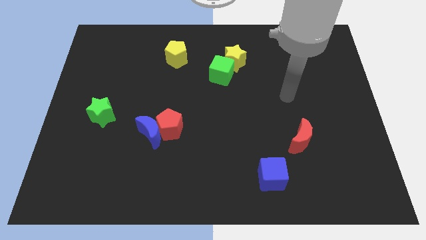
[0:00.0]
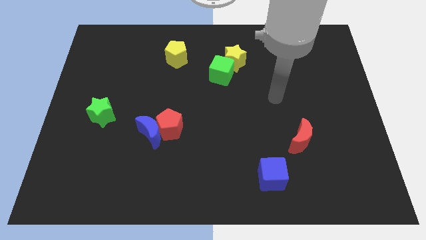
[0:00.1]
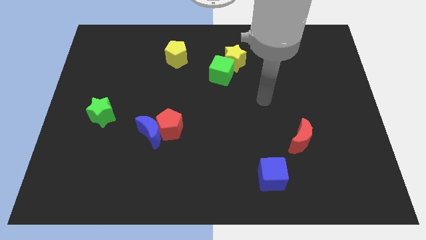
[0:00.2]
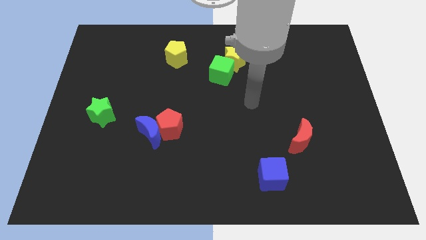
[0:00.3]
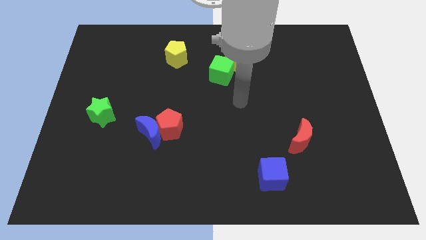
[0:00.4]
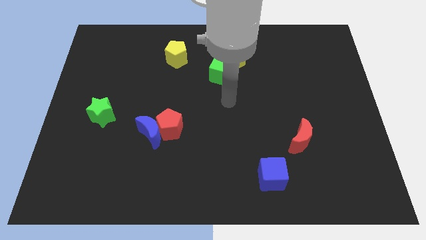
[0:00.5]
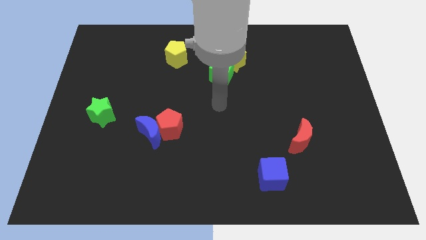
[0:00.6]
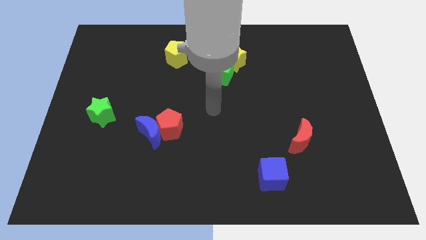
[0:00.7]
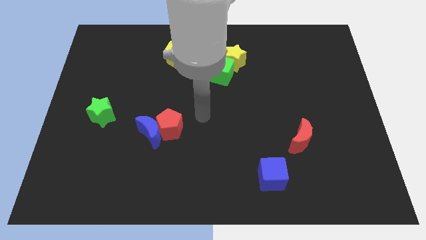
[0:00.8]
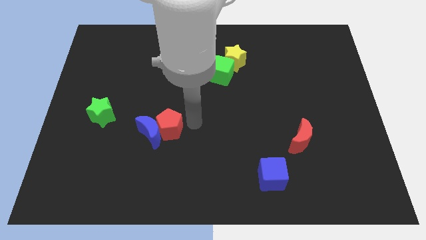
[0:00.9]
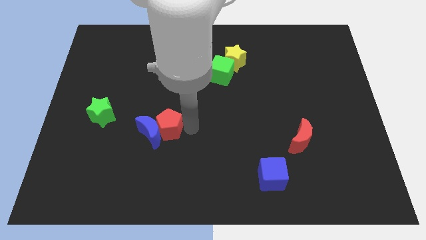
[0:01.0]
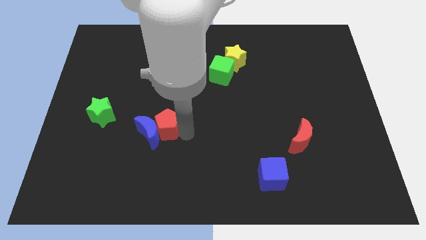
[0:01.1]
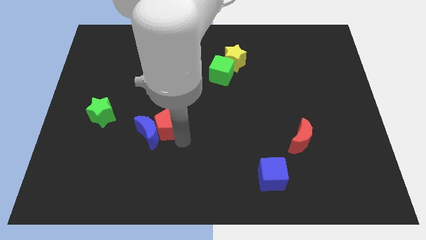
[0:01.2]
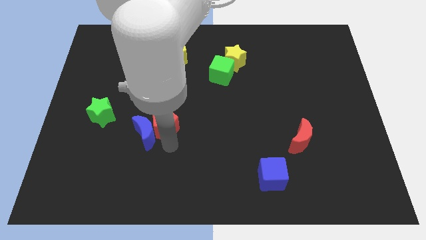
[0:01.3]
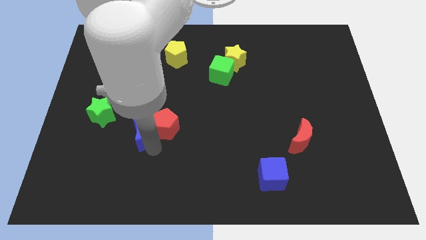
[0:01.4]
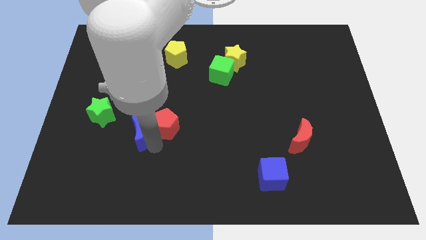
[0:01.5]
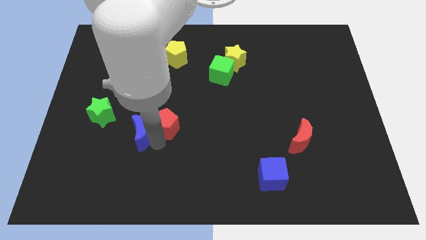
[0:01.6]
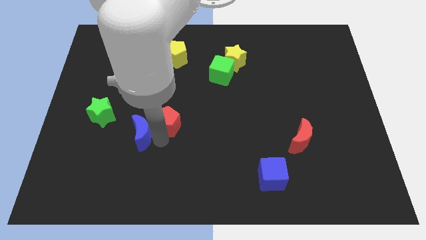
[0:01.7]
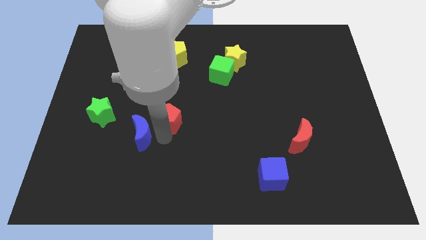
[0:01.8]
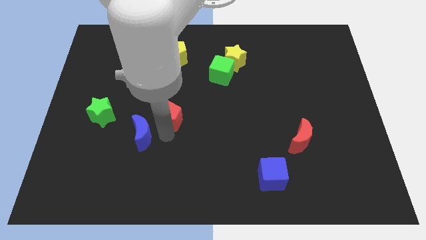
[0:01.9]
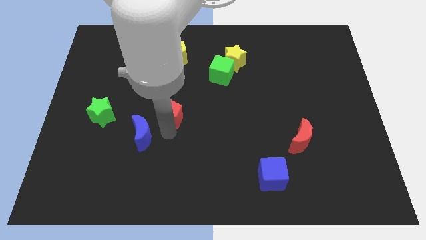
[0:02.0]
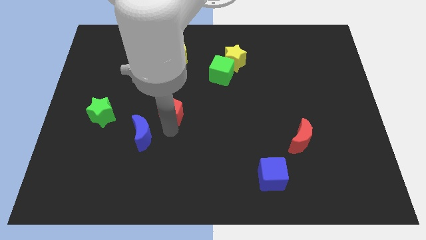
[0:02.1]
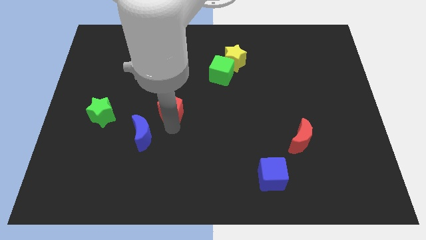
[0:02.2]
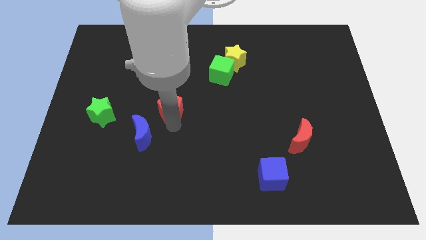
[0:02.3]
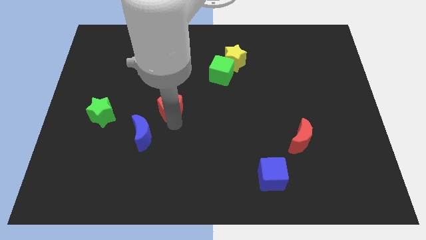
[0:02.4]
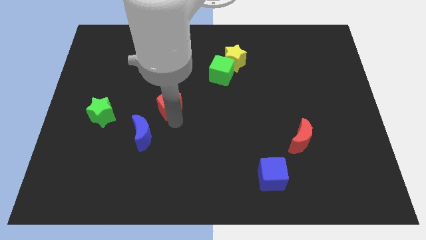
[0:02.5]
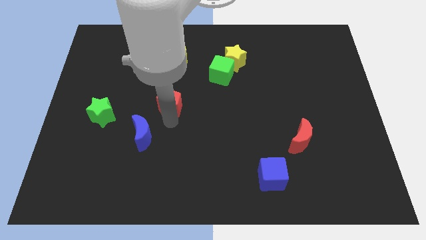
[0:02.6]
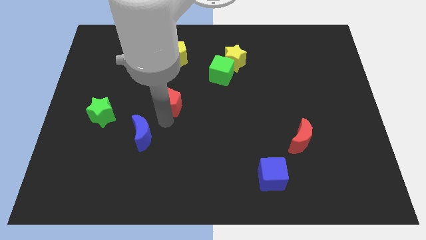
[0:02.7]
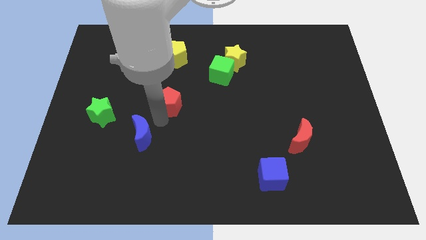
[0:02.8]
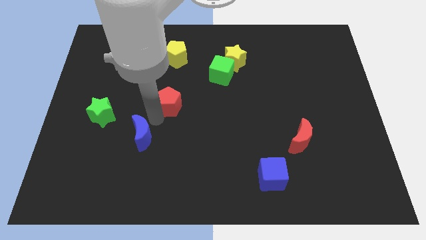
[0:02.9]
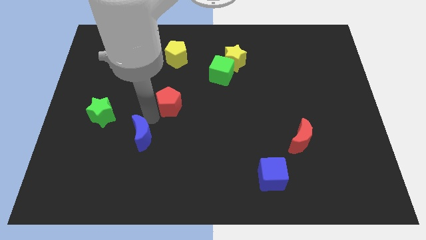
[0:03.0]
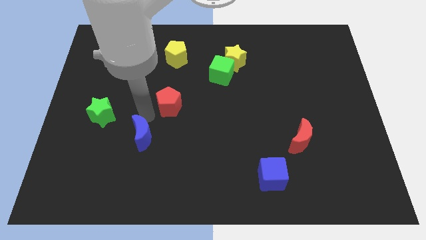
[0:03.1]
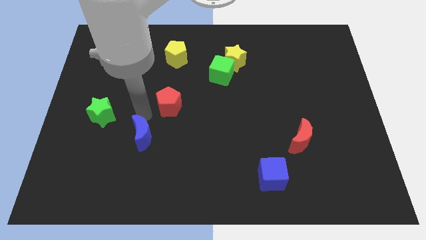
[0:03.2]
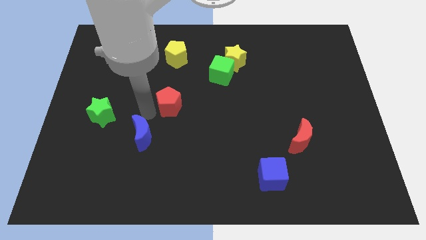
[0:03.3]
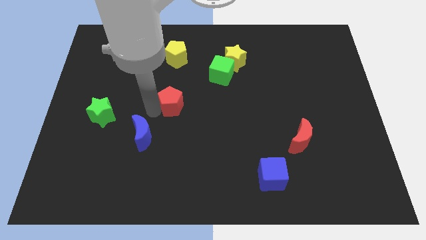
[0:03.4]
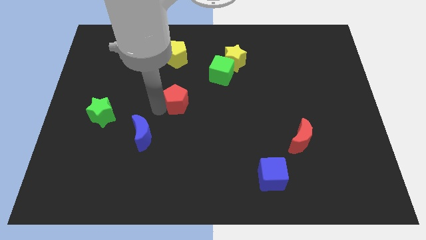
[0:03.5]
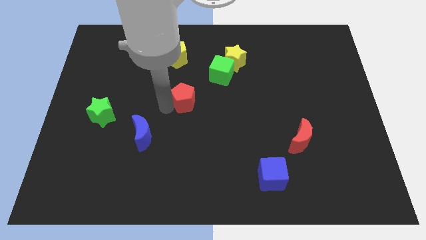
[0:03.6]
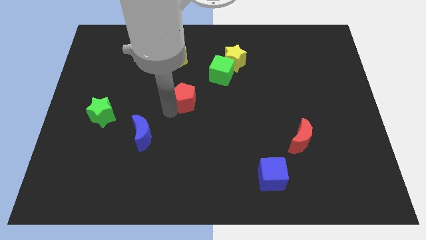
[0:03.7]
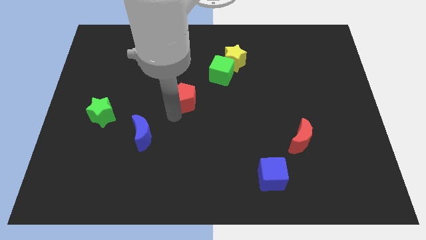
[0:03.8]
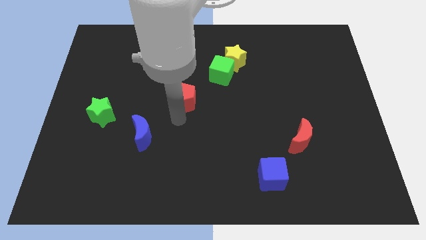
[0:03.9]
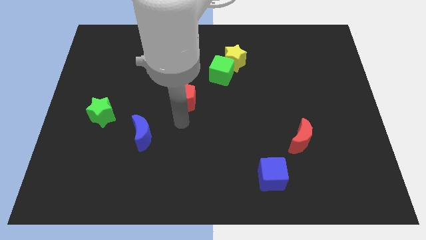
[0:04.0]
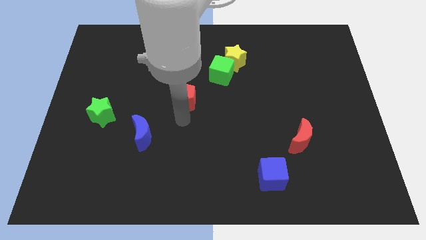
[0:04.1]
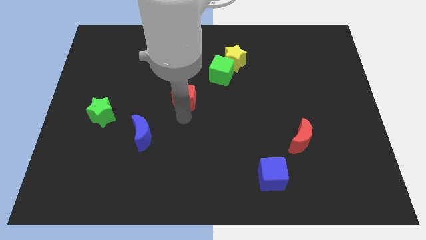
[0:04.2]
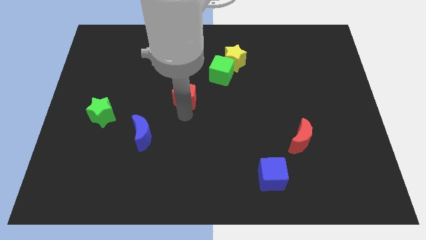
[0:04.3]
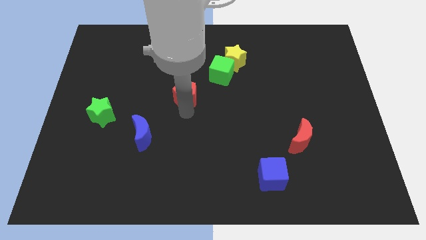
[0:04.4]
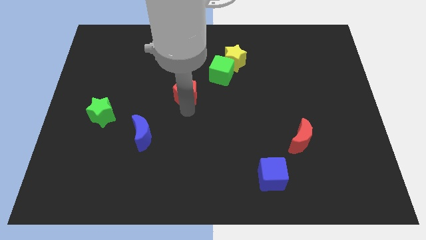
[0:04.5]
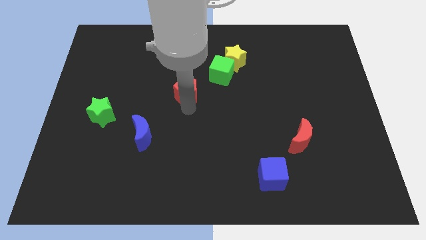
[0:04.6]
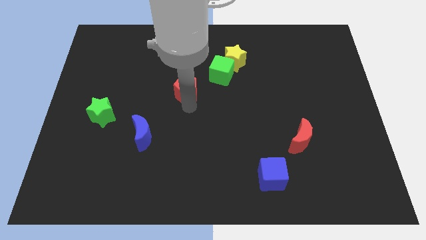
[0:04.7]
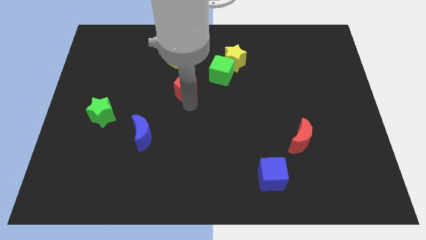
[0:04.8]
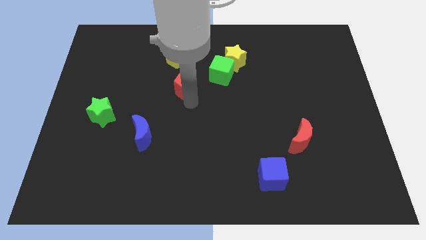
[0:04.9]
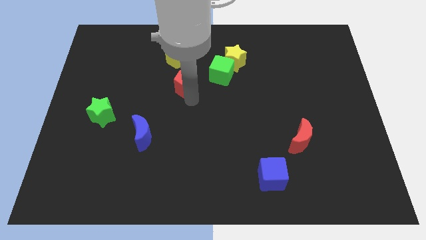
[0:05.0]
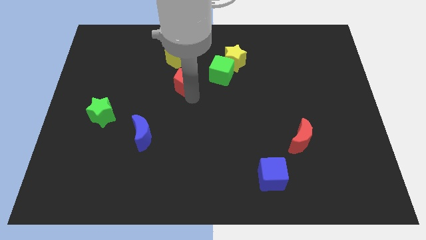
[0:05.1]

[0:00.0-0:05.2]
slide the red pentagon diagonally down and to the right of the yellow pentagon

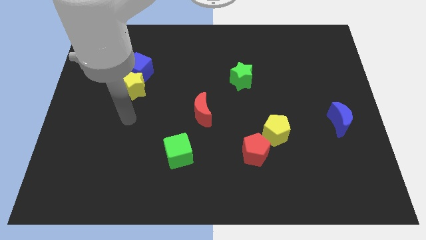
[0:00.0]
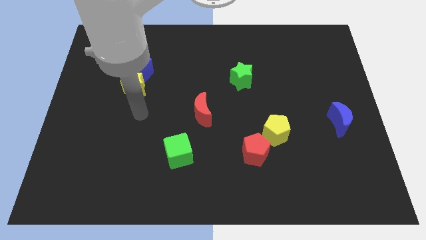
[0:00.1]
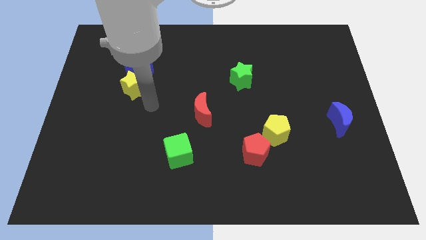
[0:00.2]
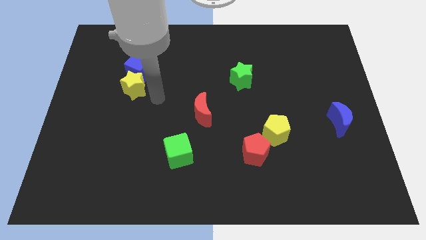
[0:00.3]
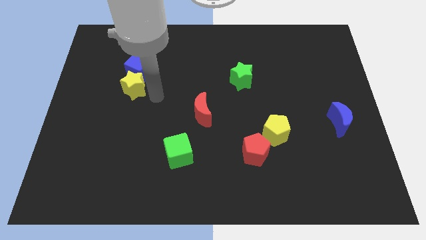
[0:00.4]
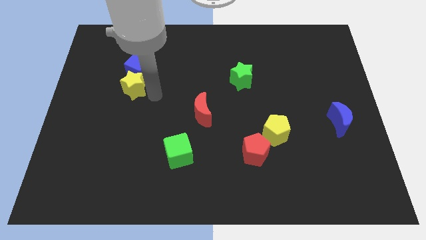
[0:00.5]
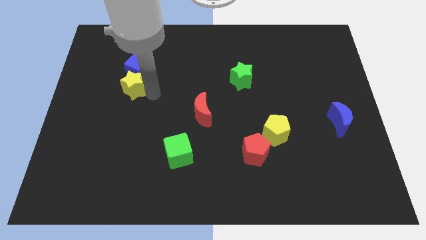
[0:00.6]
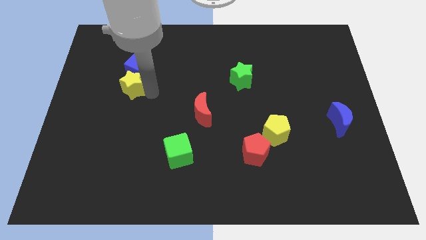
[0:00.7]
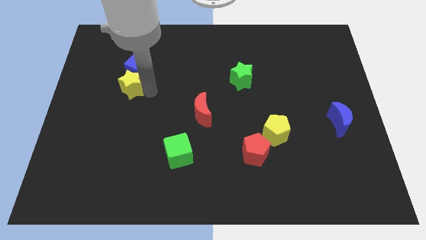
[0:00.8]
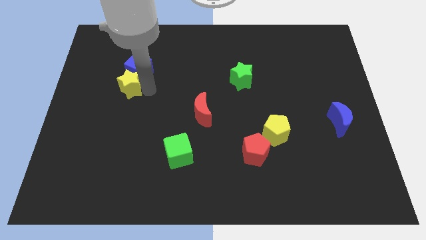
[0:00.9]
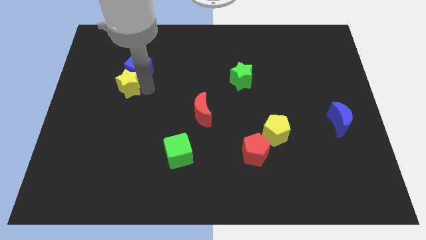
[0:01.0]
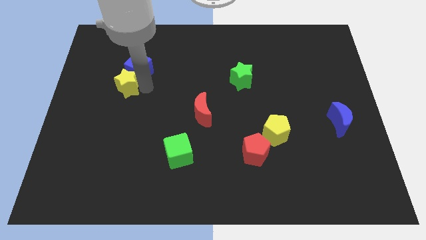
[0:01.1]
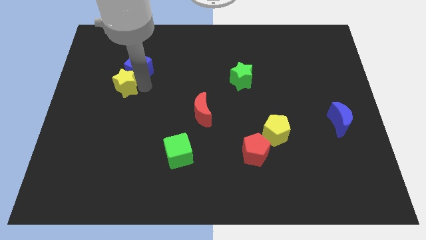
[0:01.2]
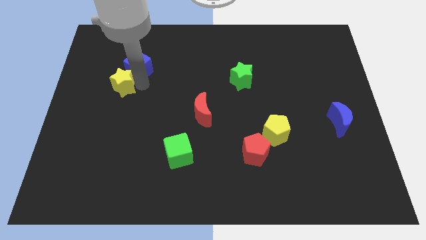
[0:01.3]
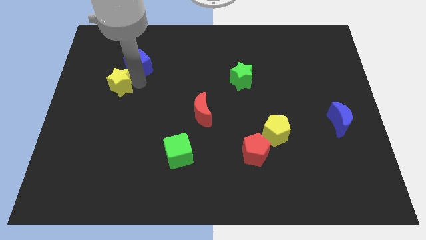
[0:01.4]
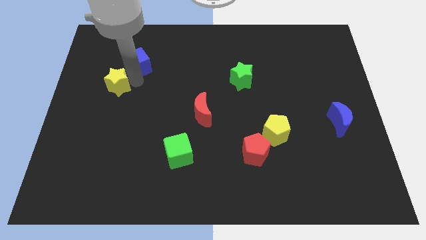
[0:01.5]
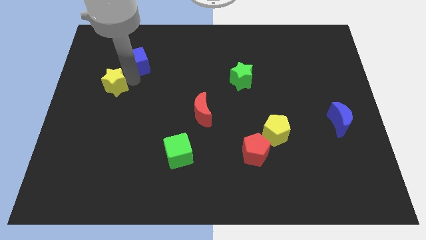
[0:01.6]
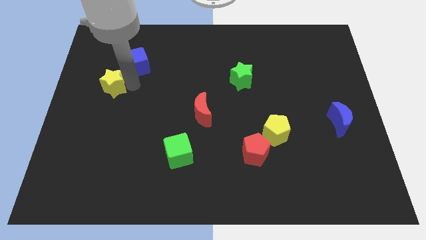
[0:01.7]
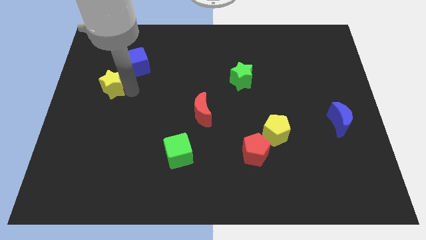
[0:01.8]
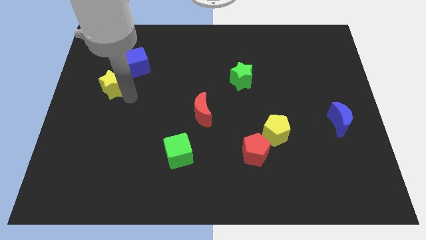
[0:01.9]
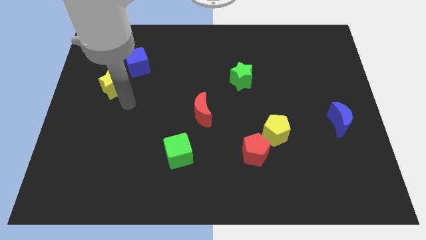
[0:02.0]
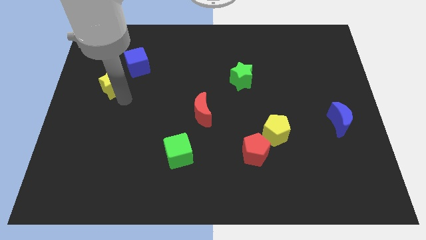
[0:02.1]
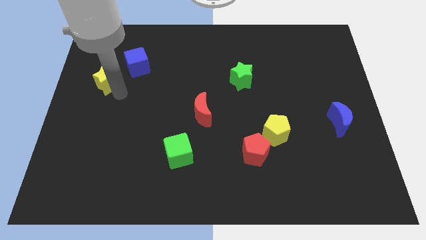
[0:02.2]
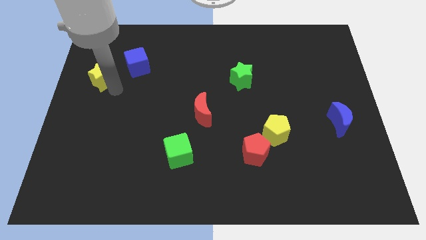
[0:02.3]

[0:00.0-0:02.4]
move the yellow star to the left of the blue cube
